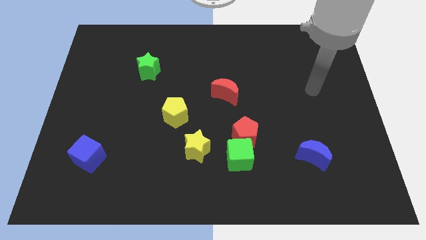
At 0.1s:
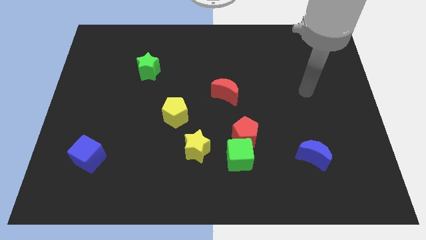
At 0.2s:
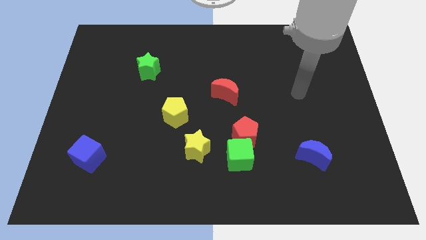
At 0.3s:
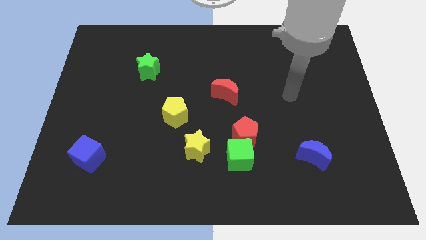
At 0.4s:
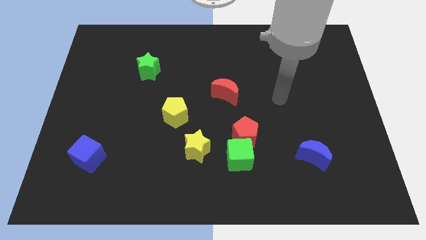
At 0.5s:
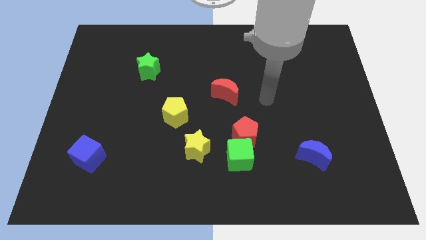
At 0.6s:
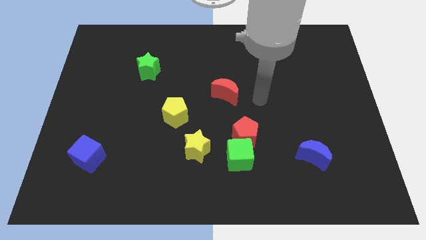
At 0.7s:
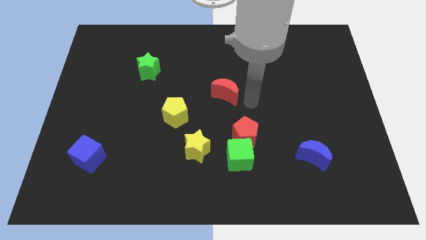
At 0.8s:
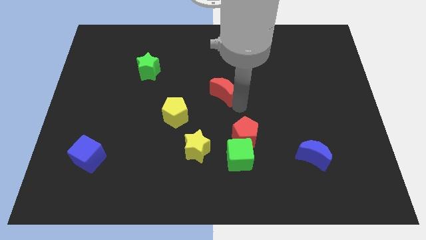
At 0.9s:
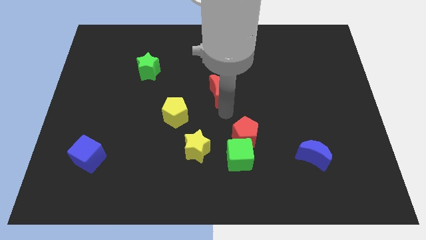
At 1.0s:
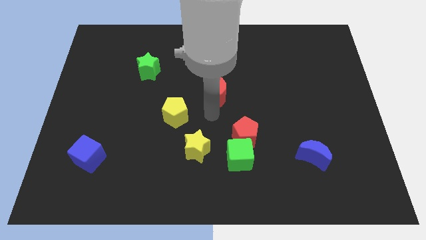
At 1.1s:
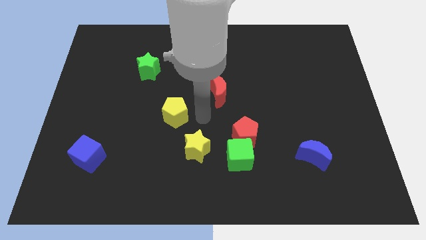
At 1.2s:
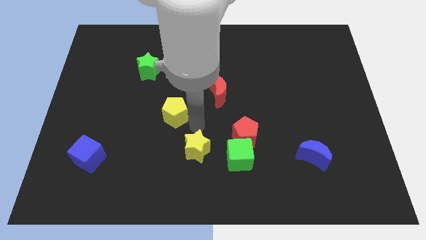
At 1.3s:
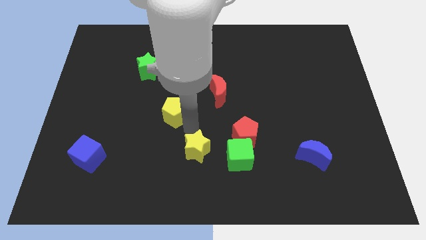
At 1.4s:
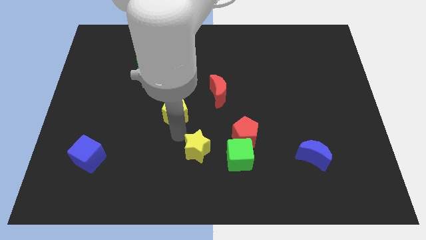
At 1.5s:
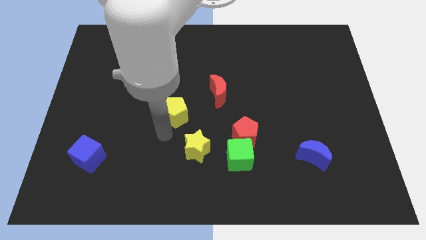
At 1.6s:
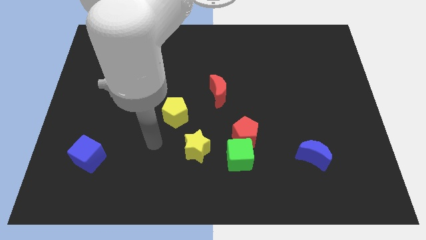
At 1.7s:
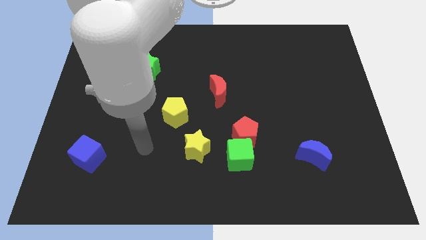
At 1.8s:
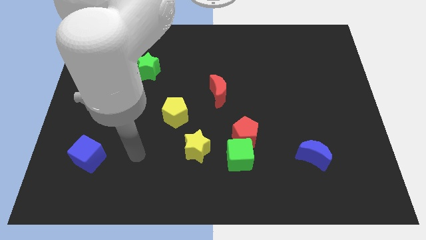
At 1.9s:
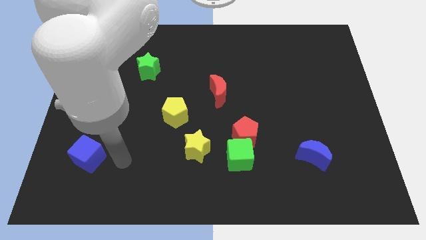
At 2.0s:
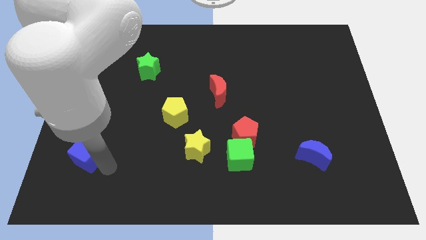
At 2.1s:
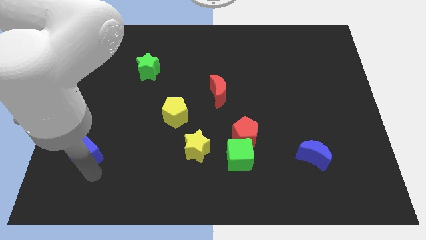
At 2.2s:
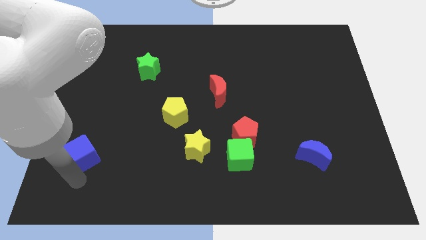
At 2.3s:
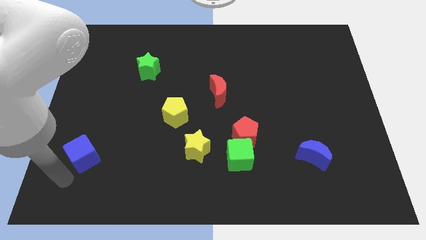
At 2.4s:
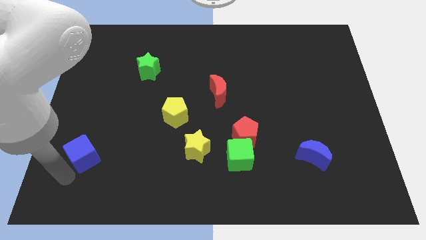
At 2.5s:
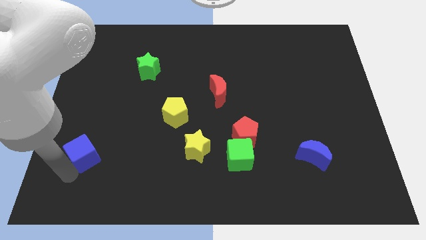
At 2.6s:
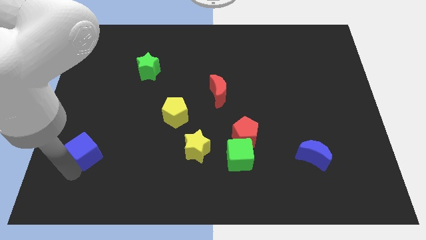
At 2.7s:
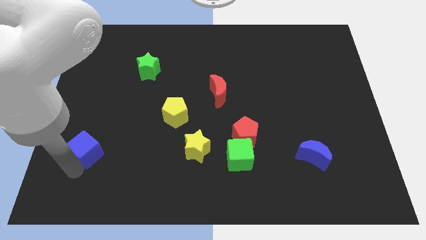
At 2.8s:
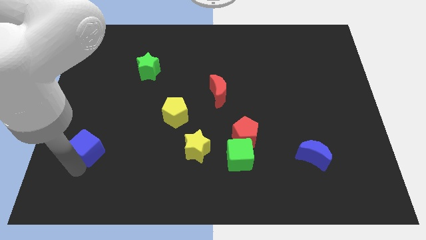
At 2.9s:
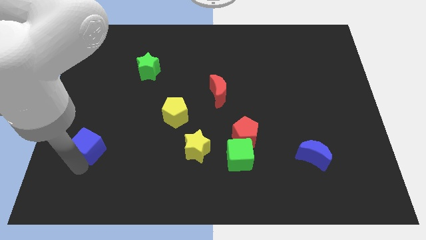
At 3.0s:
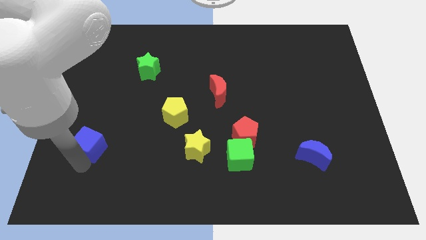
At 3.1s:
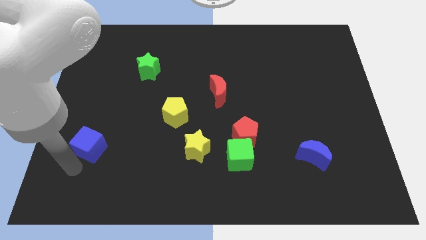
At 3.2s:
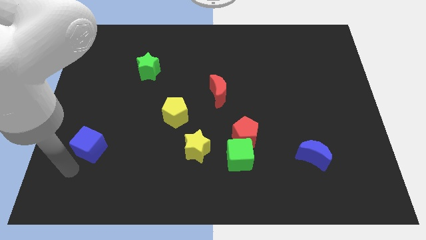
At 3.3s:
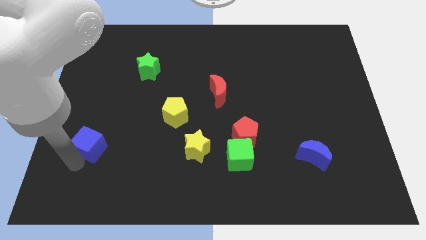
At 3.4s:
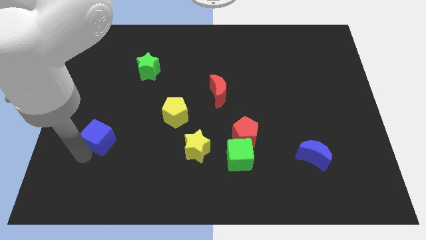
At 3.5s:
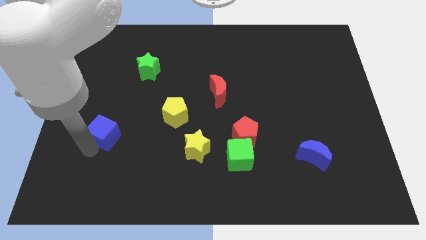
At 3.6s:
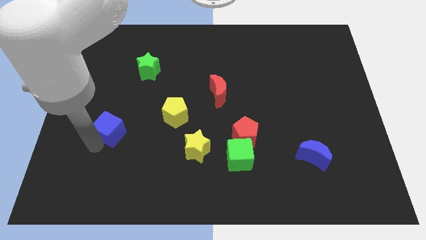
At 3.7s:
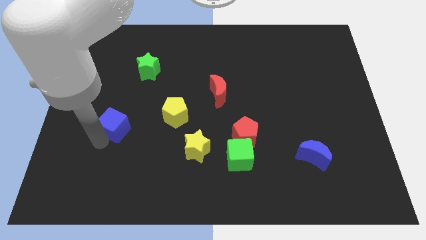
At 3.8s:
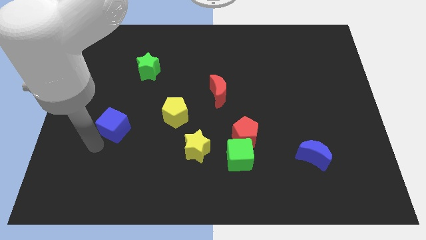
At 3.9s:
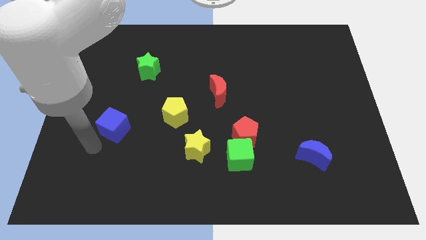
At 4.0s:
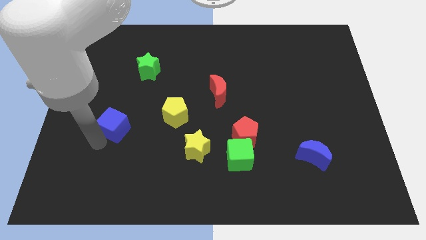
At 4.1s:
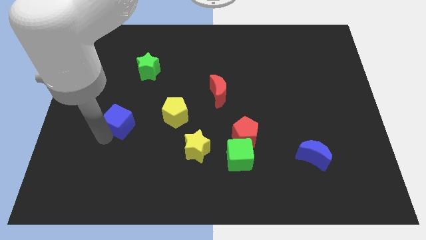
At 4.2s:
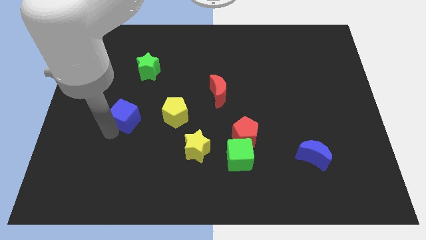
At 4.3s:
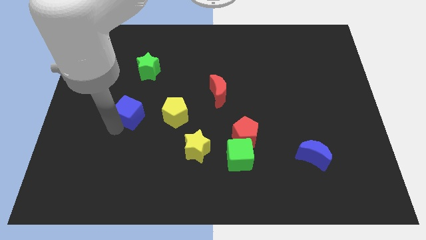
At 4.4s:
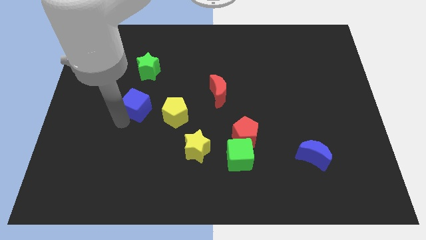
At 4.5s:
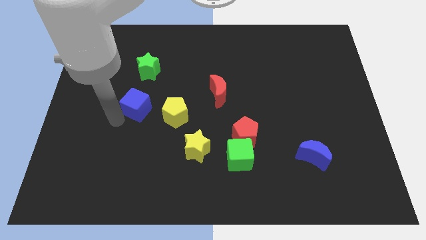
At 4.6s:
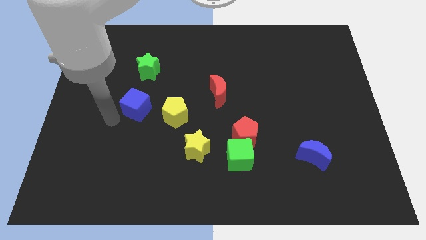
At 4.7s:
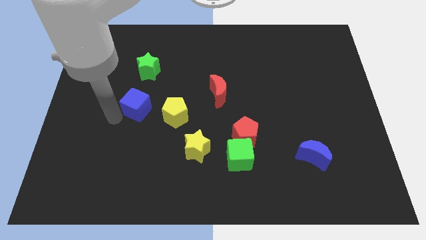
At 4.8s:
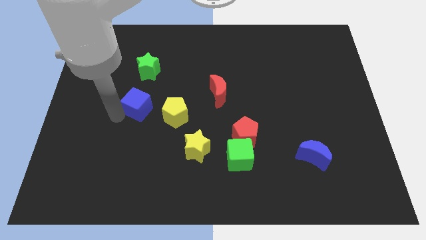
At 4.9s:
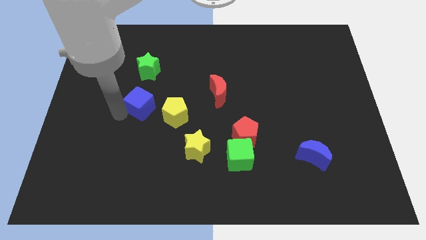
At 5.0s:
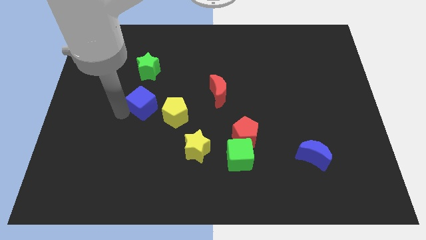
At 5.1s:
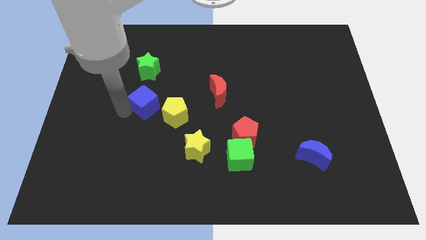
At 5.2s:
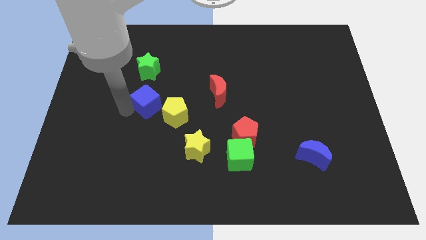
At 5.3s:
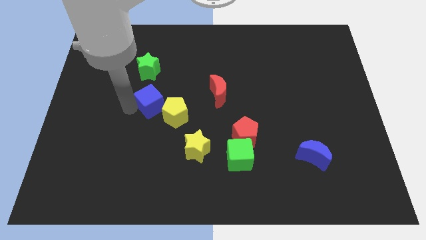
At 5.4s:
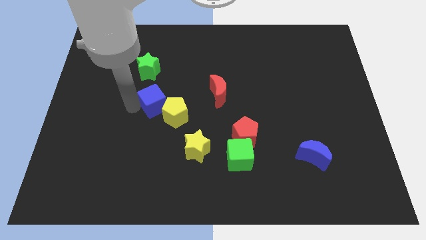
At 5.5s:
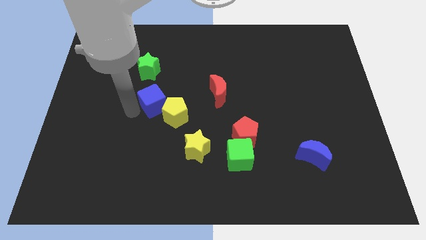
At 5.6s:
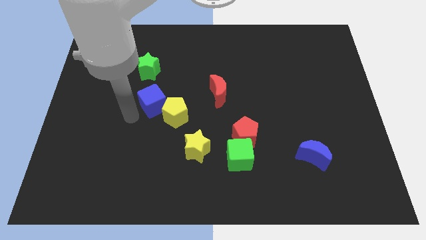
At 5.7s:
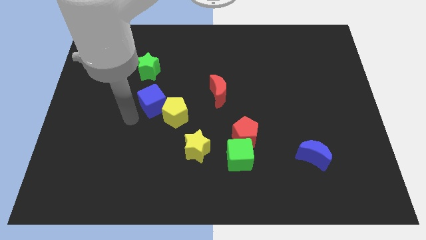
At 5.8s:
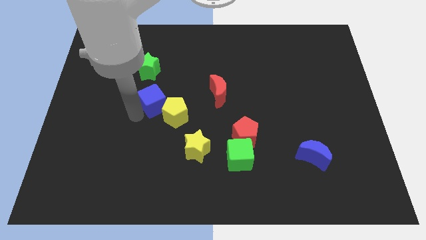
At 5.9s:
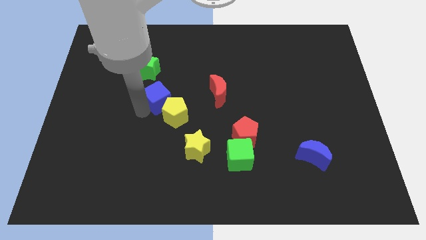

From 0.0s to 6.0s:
push the blue cube up and to the right diagonally

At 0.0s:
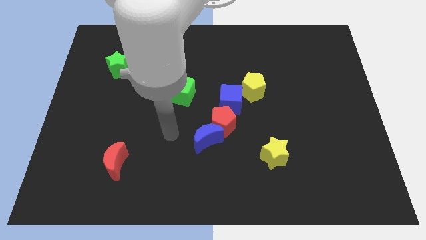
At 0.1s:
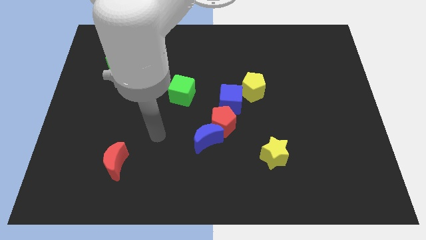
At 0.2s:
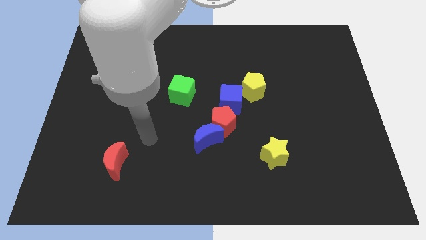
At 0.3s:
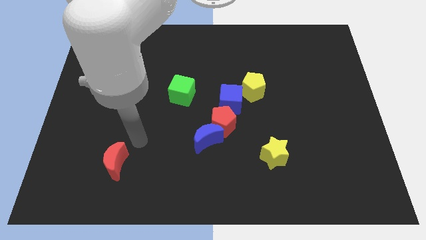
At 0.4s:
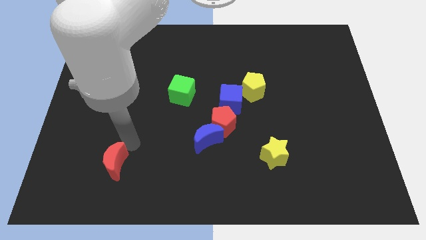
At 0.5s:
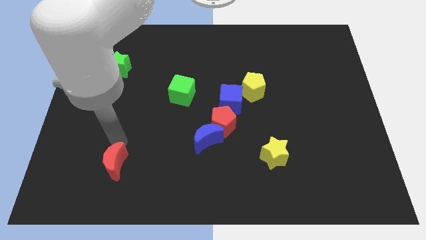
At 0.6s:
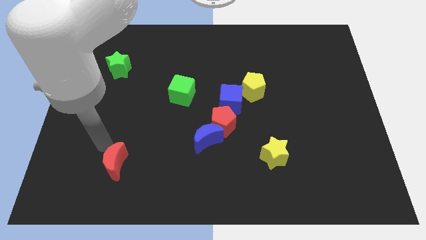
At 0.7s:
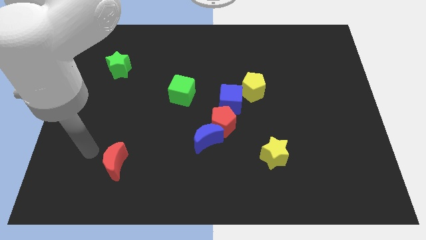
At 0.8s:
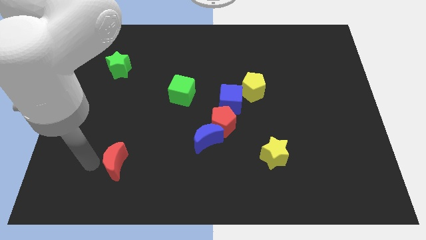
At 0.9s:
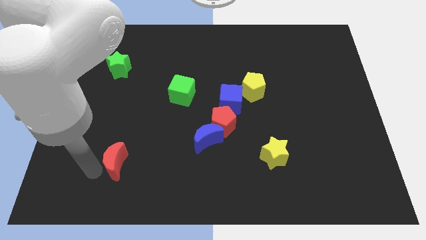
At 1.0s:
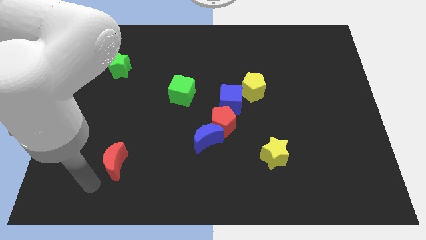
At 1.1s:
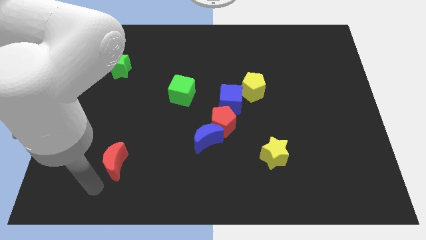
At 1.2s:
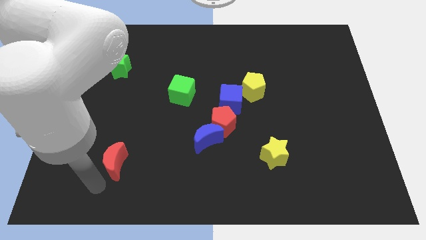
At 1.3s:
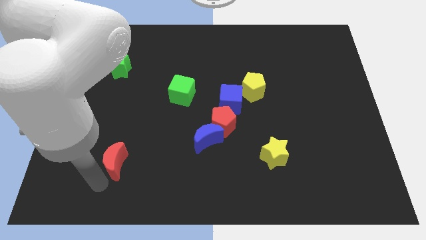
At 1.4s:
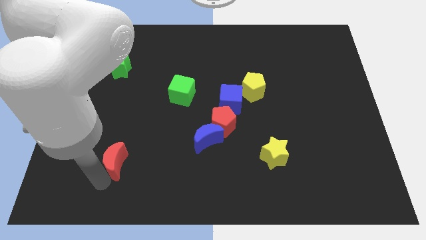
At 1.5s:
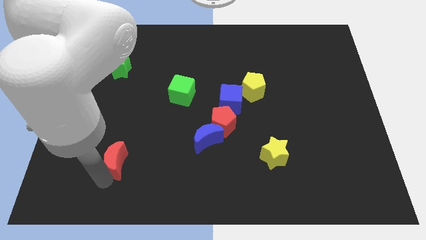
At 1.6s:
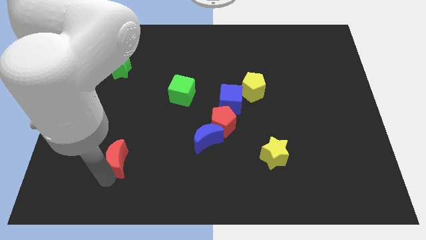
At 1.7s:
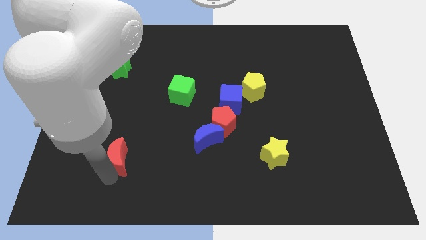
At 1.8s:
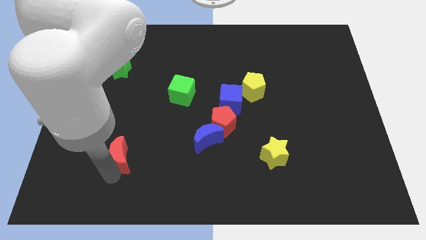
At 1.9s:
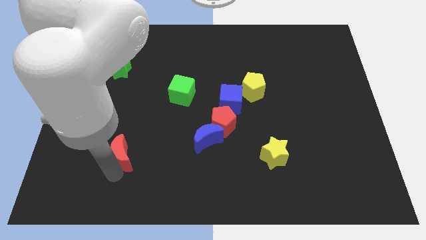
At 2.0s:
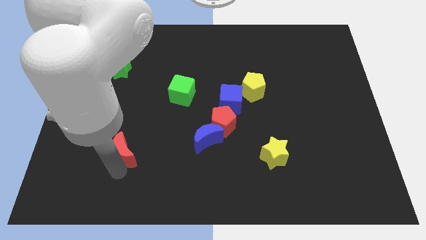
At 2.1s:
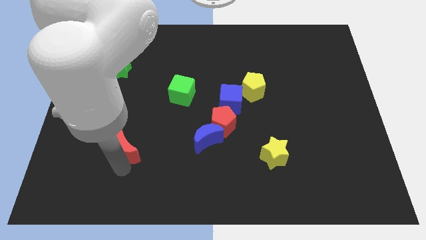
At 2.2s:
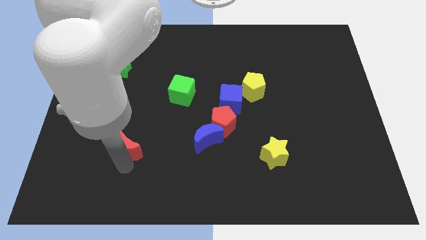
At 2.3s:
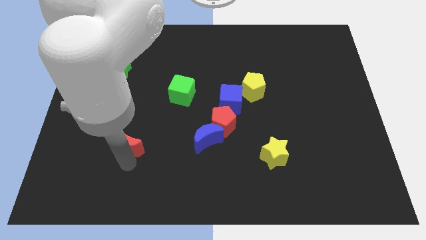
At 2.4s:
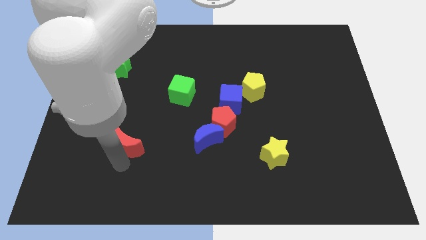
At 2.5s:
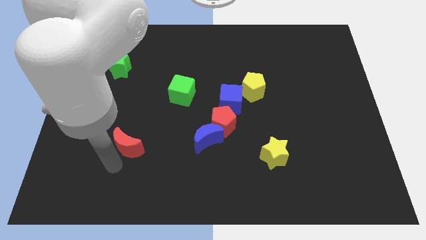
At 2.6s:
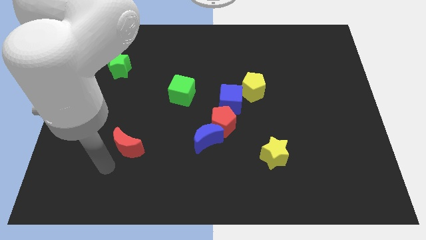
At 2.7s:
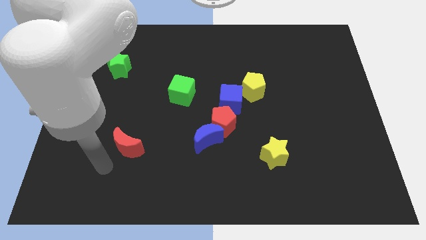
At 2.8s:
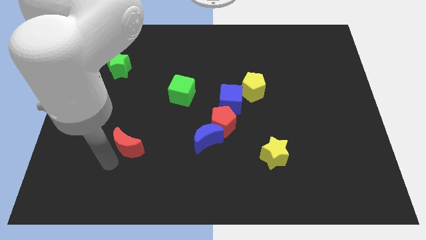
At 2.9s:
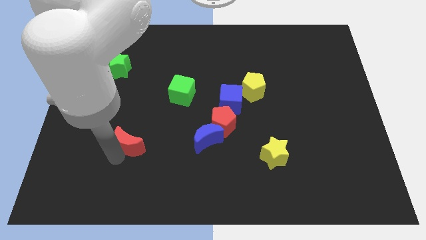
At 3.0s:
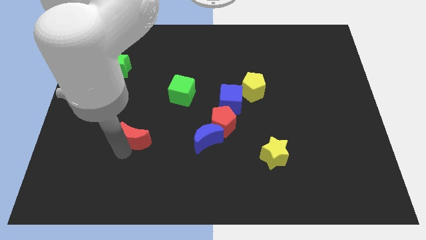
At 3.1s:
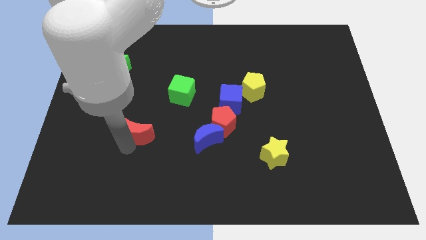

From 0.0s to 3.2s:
push the red moon upwards and right a little bit
